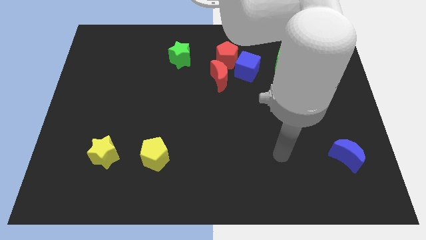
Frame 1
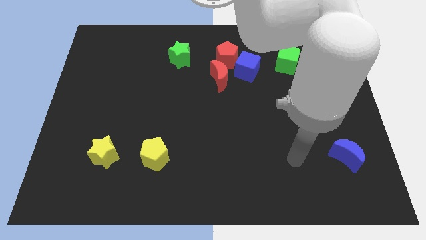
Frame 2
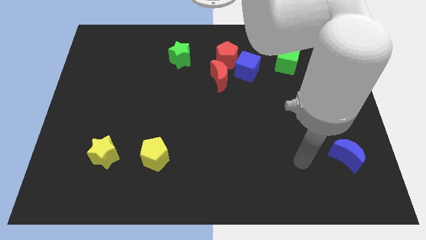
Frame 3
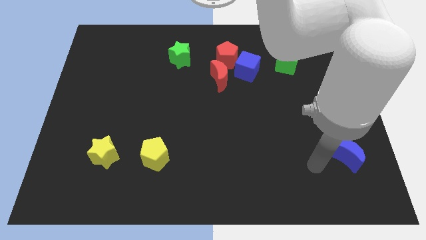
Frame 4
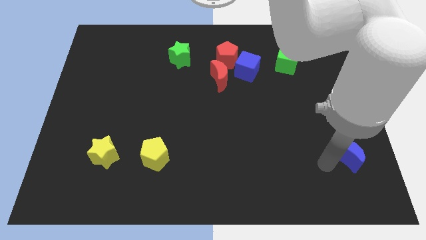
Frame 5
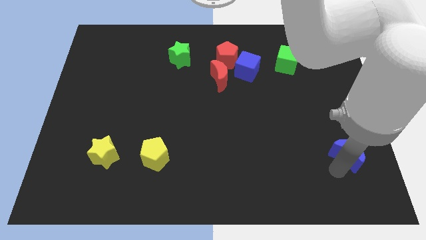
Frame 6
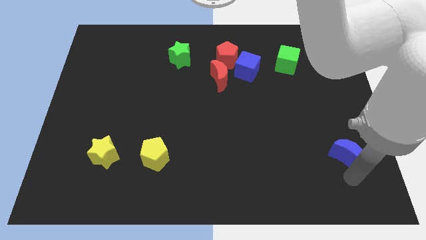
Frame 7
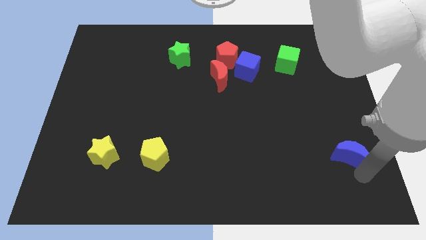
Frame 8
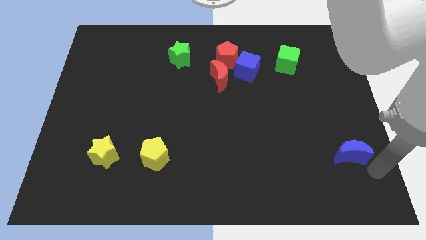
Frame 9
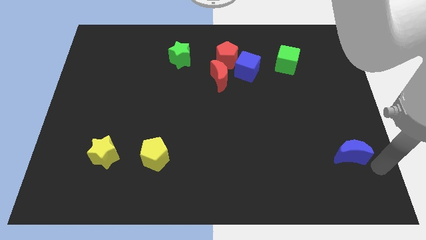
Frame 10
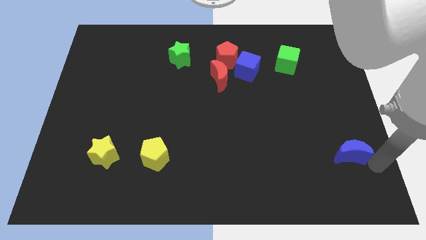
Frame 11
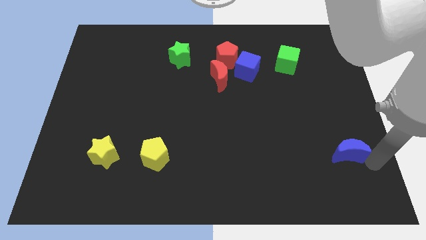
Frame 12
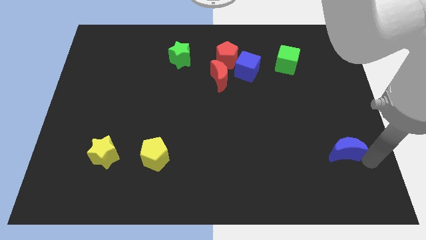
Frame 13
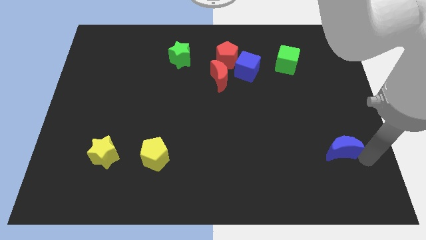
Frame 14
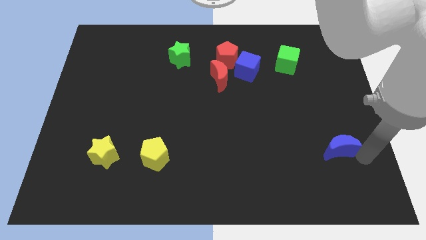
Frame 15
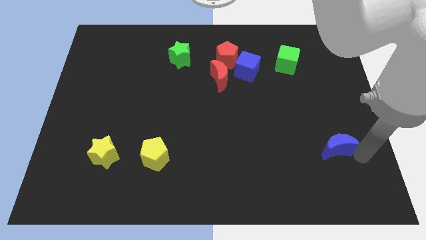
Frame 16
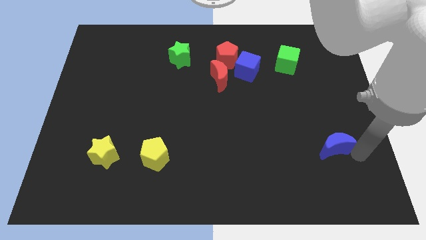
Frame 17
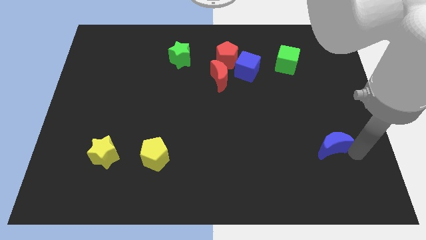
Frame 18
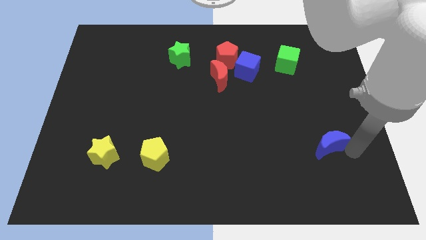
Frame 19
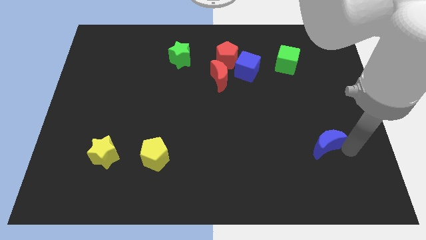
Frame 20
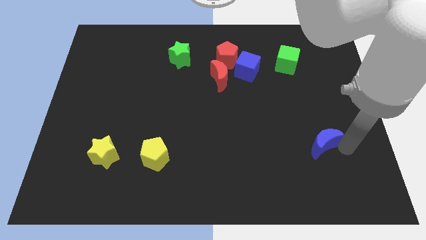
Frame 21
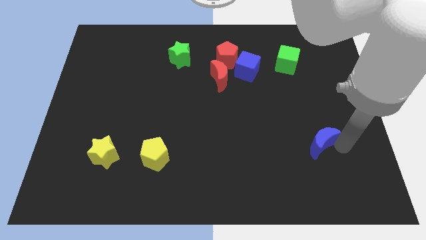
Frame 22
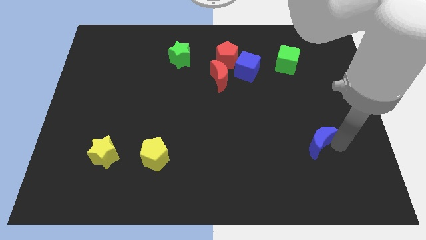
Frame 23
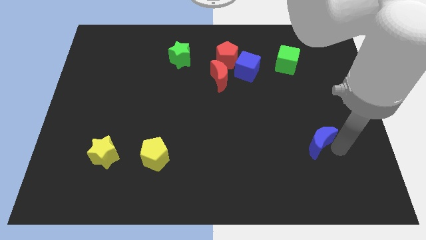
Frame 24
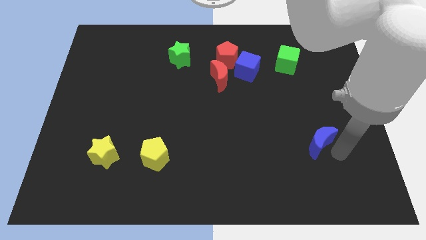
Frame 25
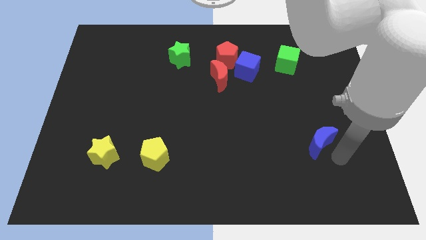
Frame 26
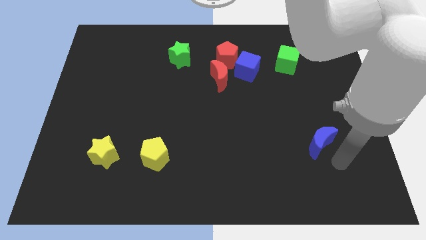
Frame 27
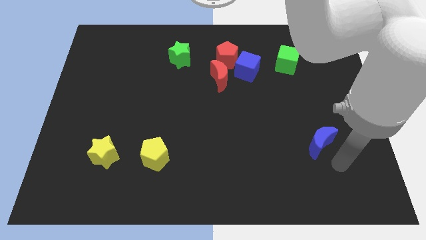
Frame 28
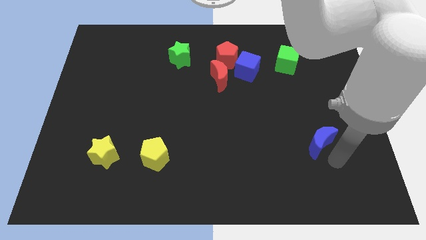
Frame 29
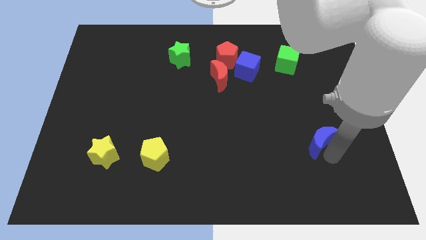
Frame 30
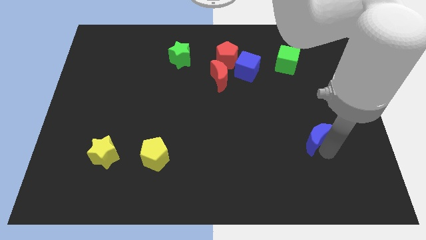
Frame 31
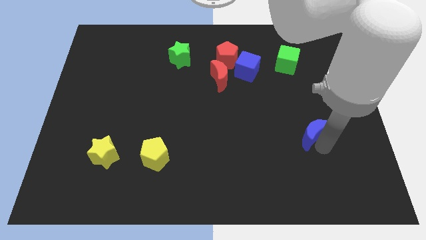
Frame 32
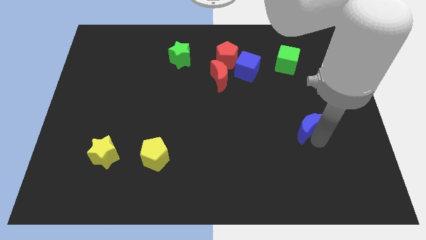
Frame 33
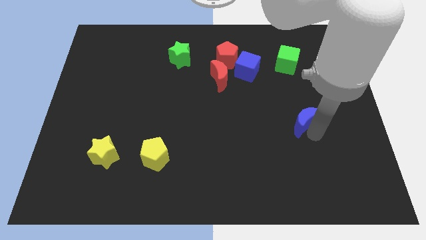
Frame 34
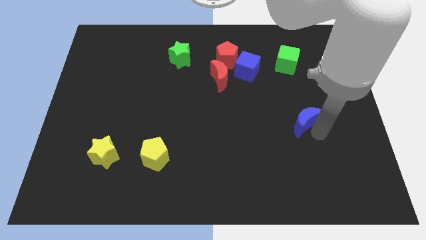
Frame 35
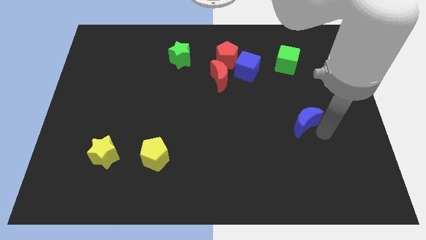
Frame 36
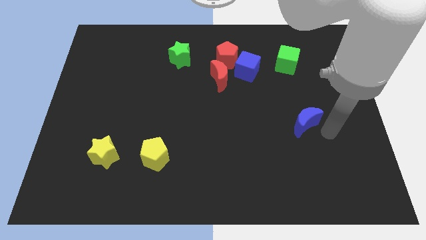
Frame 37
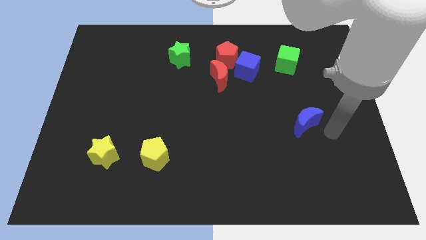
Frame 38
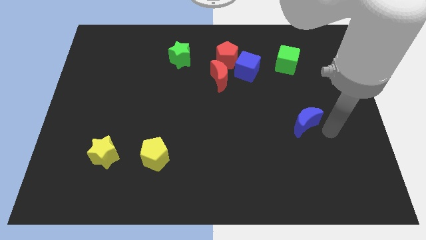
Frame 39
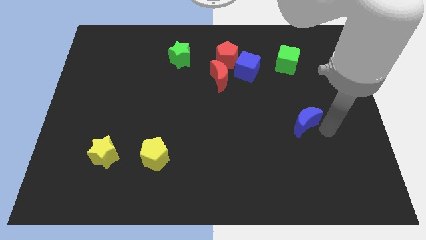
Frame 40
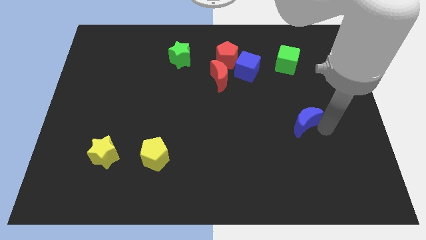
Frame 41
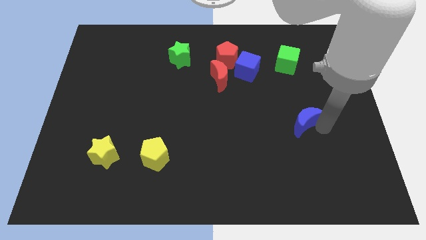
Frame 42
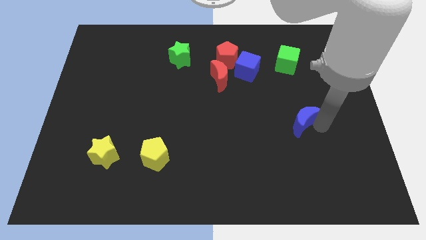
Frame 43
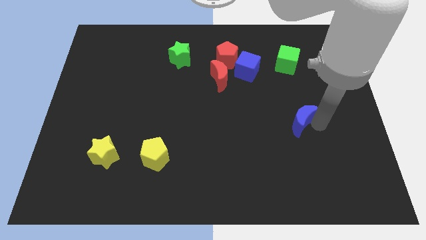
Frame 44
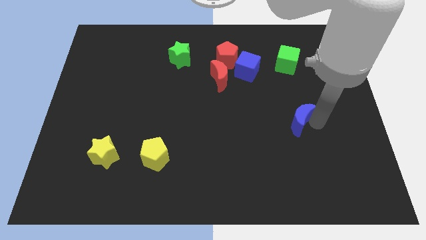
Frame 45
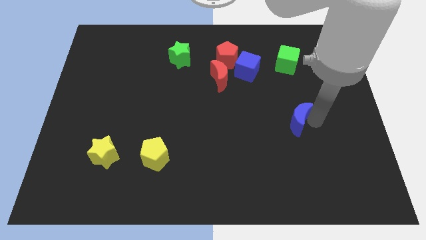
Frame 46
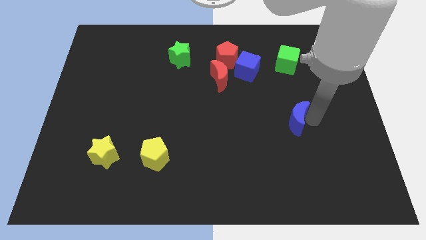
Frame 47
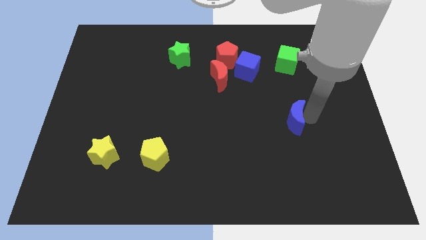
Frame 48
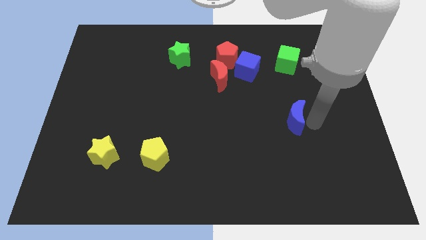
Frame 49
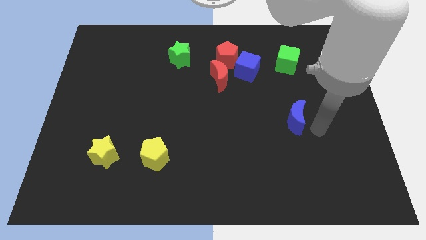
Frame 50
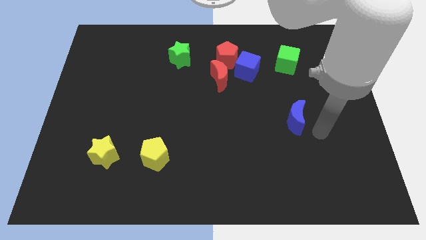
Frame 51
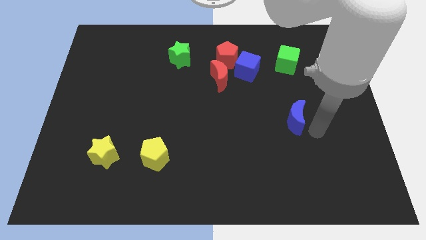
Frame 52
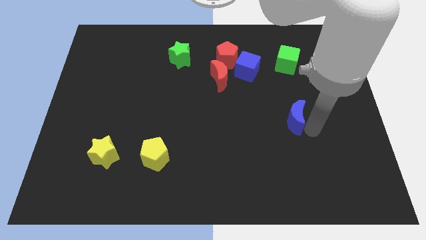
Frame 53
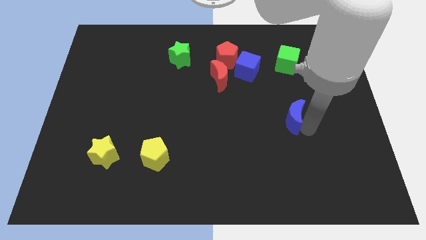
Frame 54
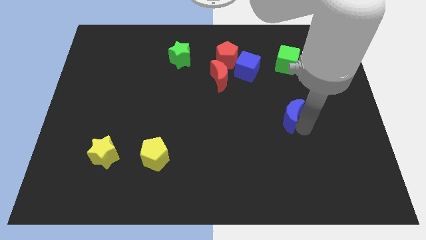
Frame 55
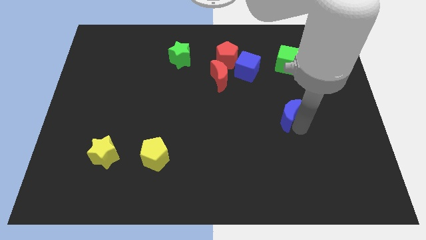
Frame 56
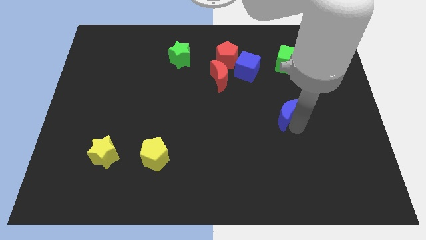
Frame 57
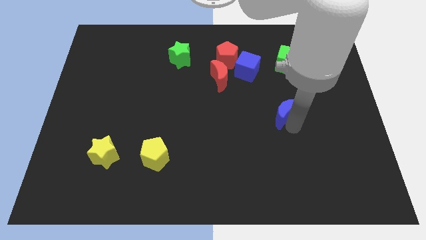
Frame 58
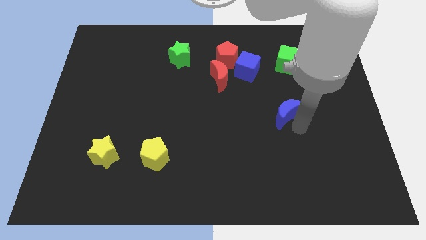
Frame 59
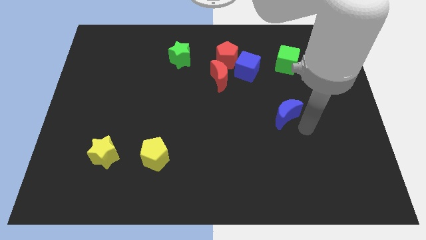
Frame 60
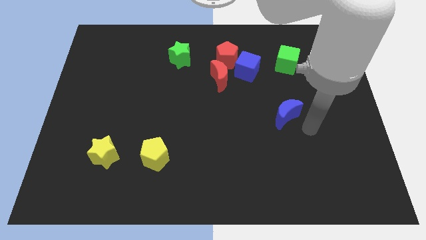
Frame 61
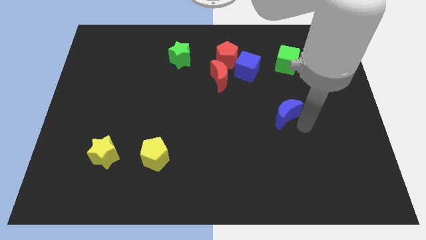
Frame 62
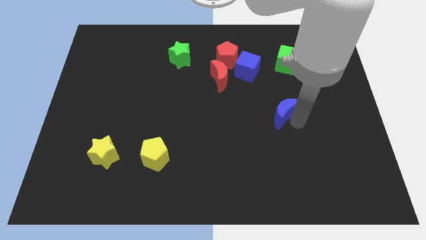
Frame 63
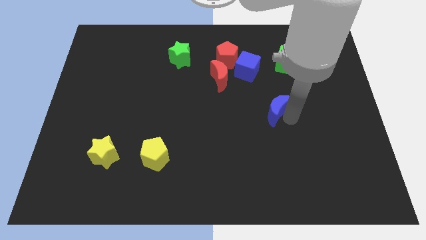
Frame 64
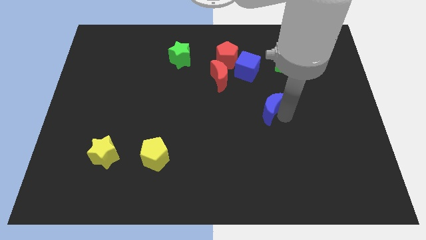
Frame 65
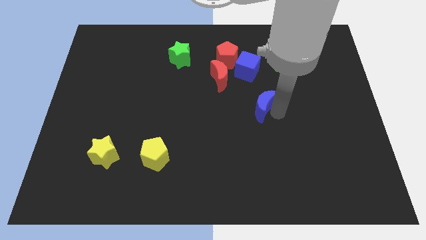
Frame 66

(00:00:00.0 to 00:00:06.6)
push the blue moon to the bottom of the blue cube

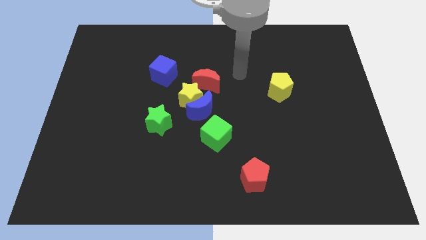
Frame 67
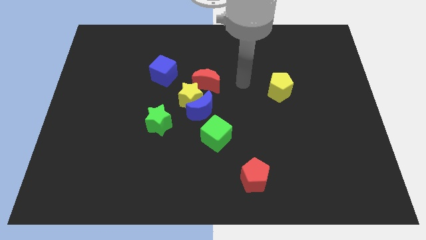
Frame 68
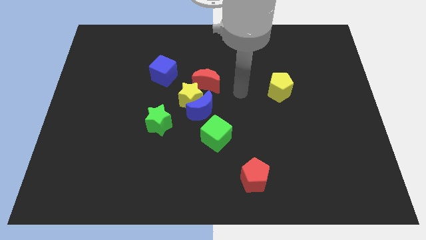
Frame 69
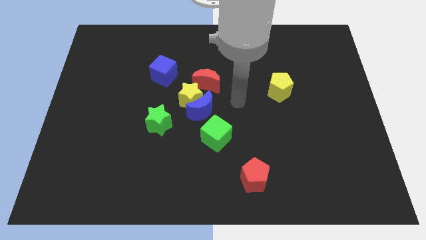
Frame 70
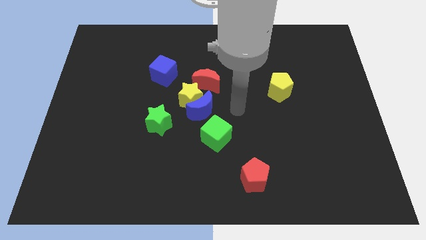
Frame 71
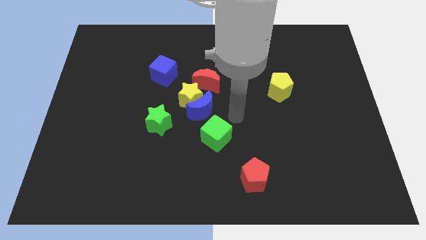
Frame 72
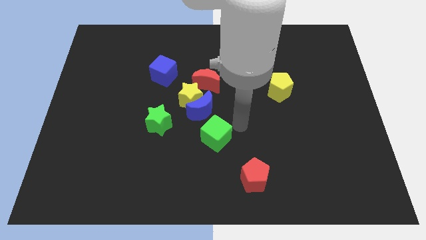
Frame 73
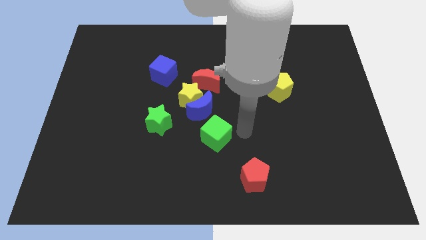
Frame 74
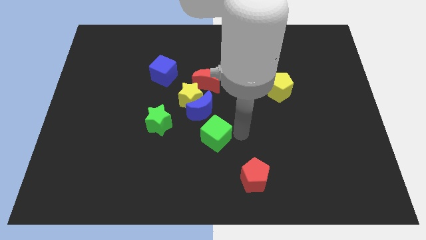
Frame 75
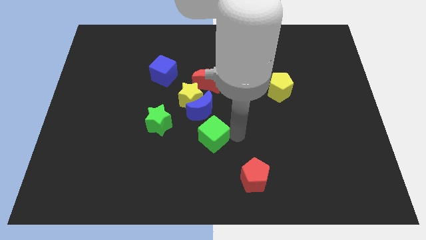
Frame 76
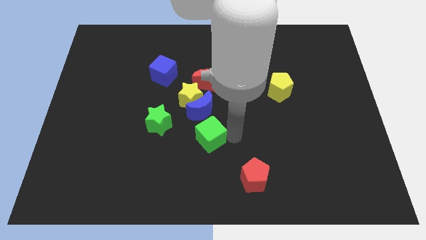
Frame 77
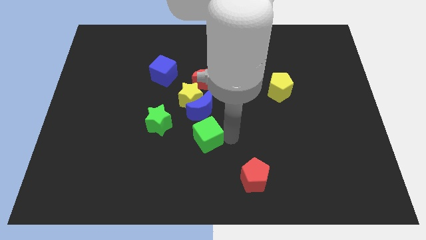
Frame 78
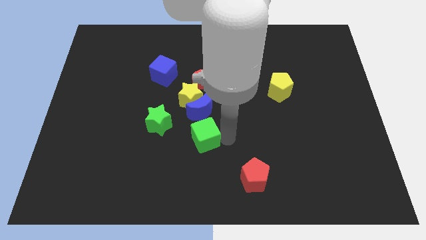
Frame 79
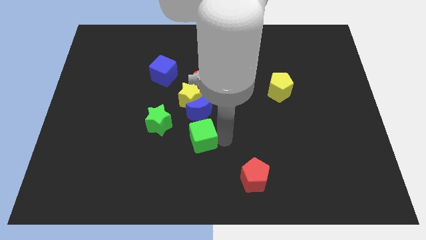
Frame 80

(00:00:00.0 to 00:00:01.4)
slide the green cube to the bottom right side of the green star
